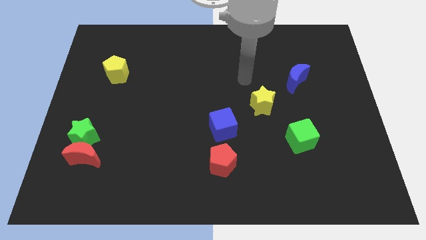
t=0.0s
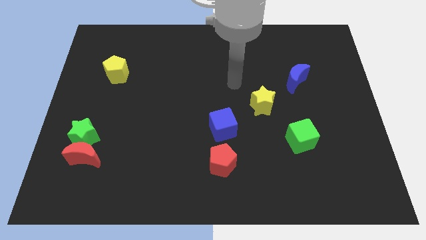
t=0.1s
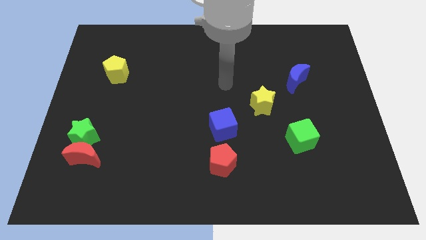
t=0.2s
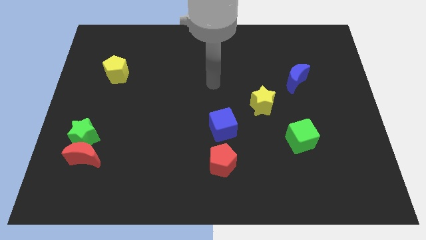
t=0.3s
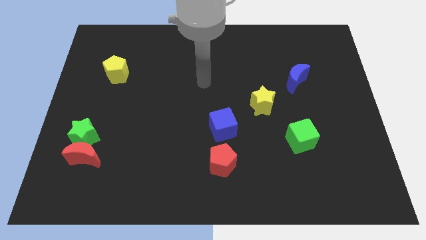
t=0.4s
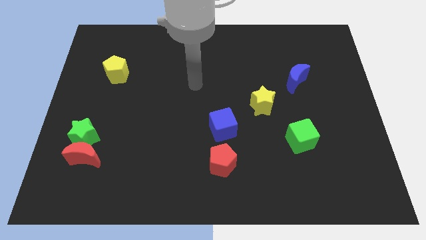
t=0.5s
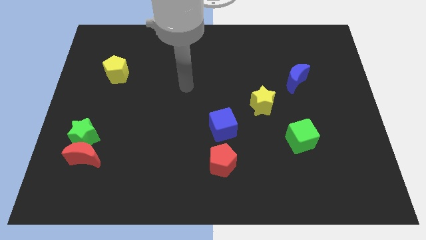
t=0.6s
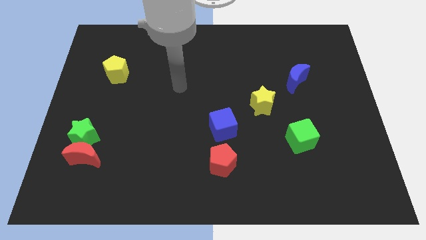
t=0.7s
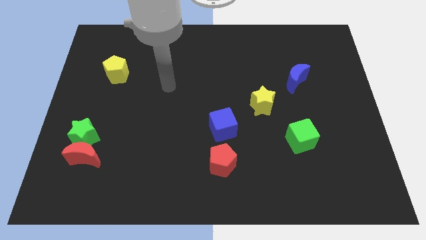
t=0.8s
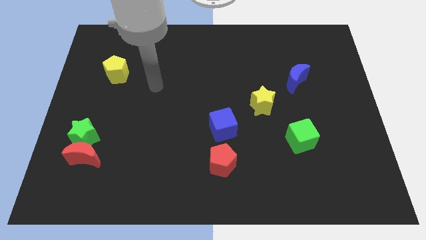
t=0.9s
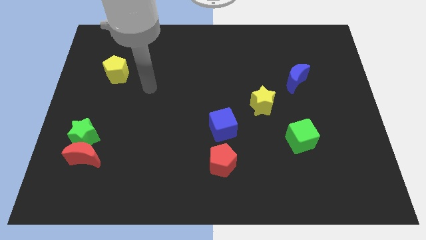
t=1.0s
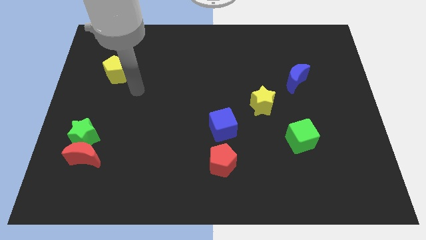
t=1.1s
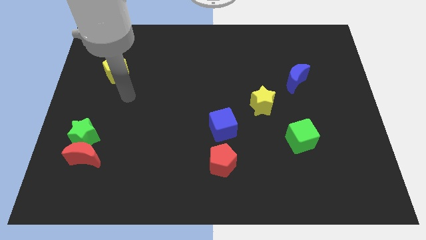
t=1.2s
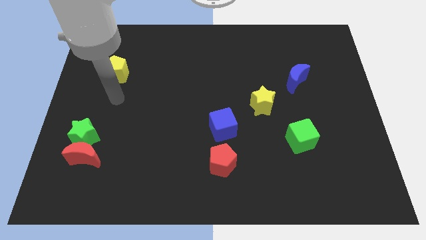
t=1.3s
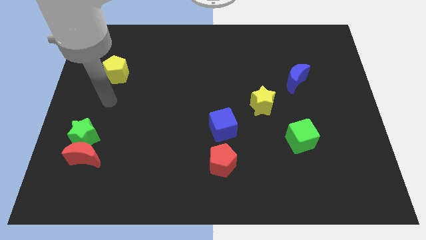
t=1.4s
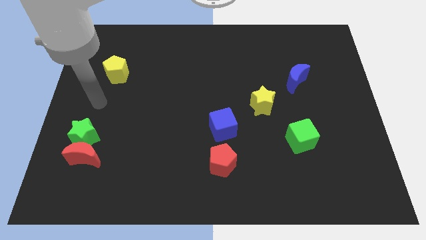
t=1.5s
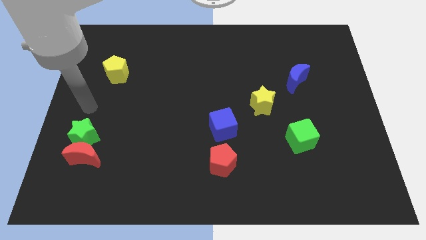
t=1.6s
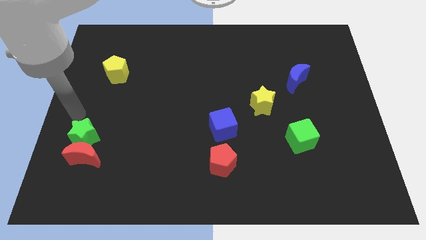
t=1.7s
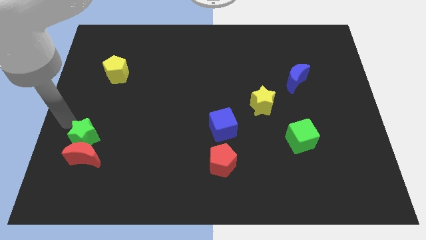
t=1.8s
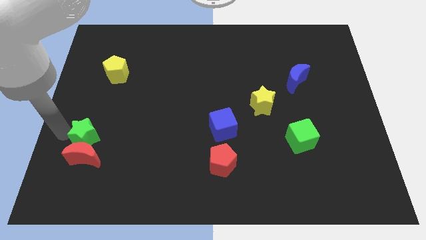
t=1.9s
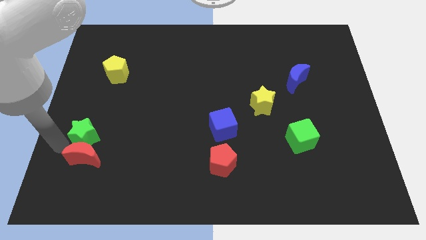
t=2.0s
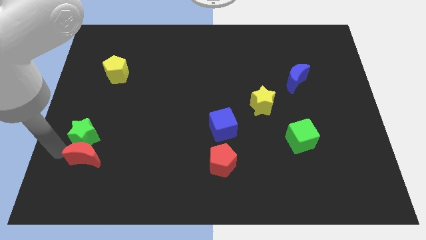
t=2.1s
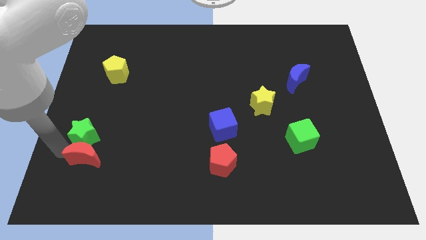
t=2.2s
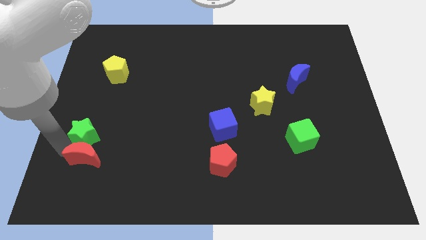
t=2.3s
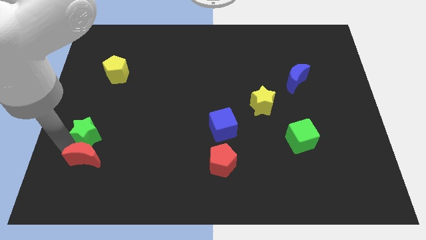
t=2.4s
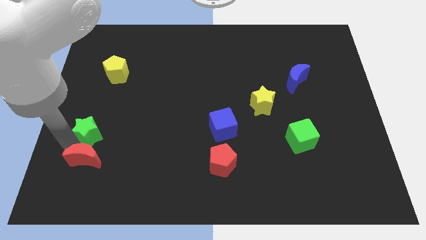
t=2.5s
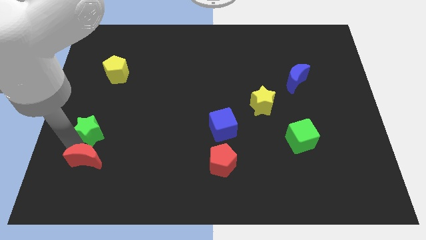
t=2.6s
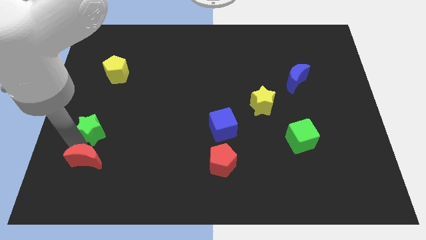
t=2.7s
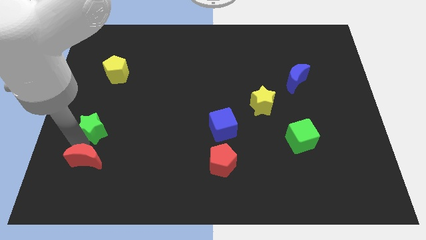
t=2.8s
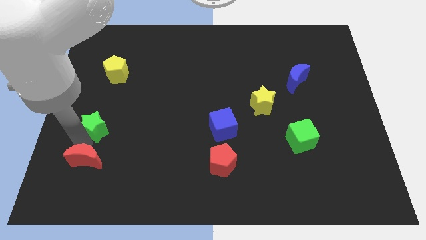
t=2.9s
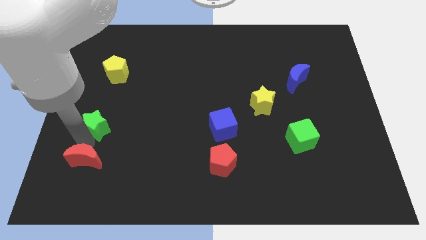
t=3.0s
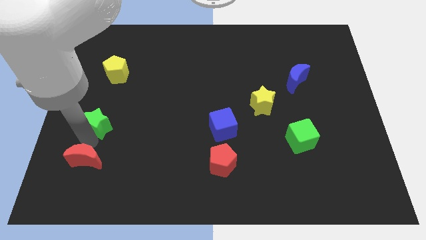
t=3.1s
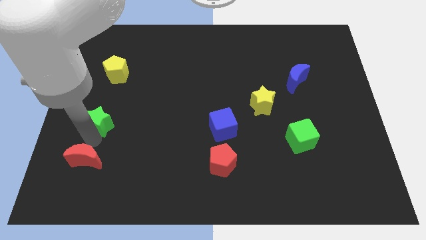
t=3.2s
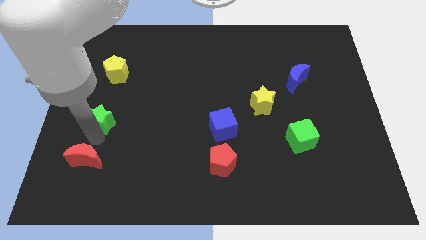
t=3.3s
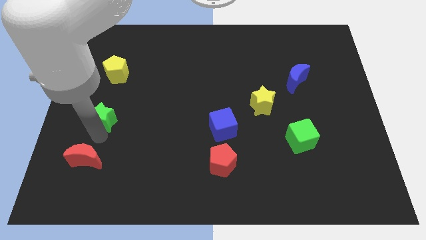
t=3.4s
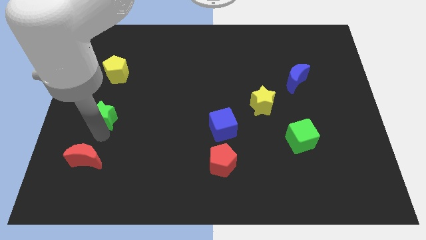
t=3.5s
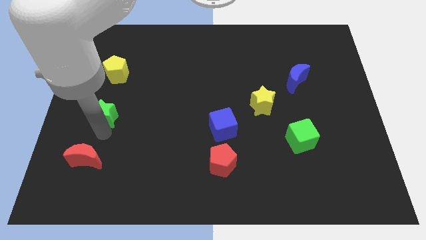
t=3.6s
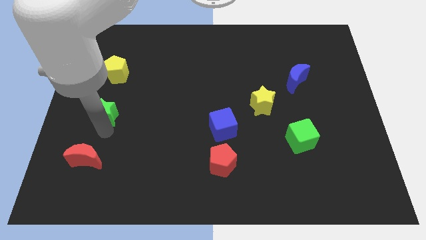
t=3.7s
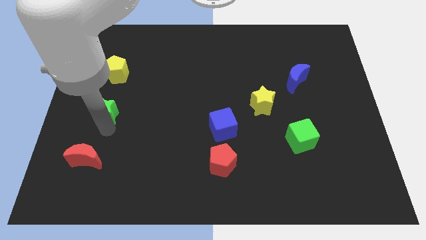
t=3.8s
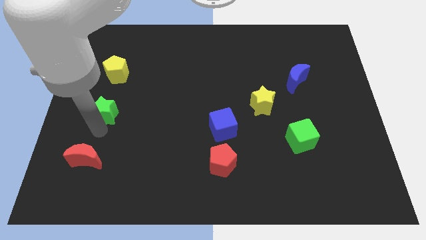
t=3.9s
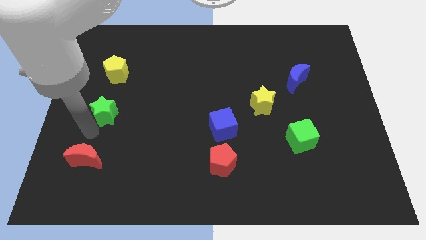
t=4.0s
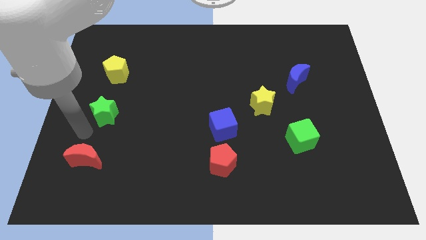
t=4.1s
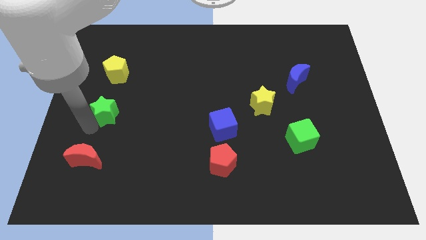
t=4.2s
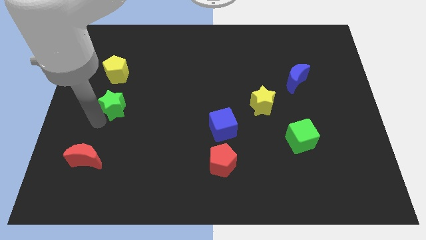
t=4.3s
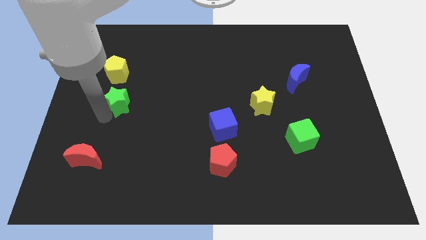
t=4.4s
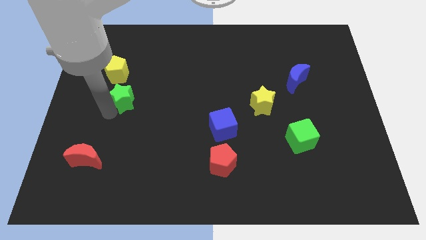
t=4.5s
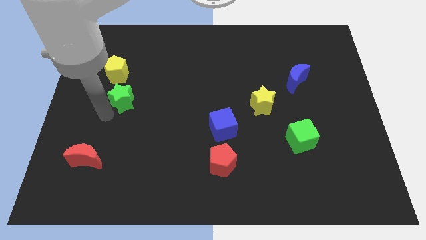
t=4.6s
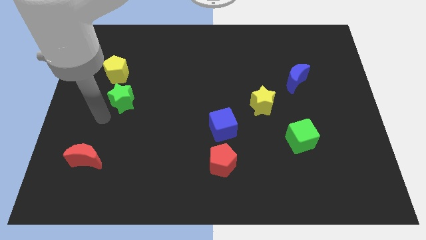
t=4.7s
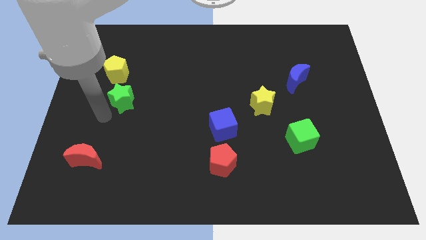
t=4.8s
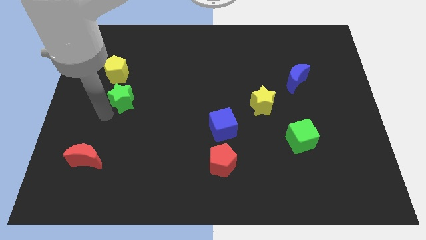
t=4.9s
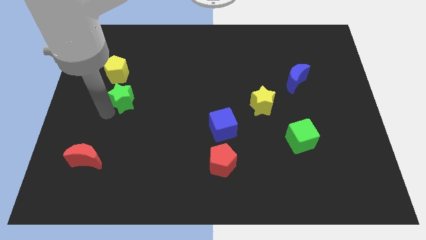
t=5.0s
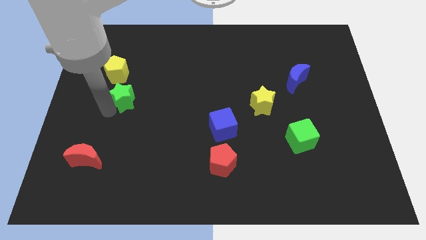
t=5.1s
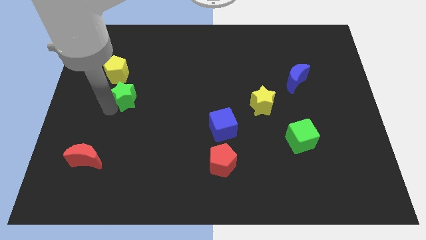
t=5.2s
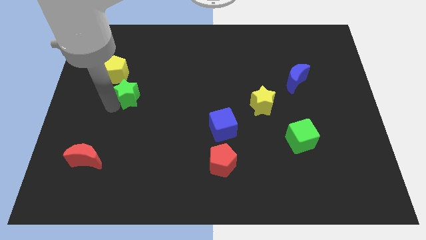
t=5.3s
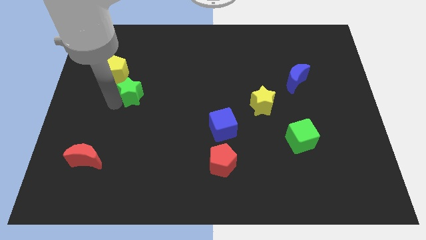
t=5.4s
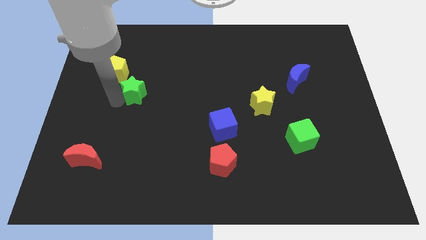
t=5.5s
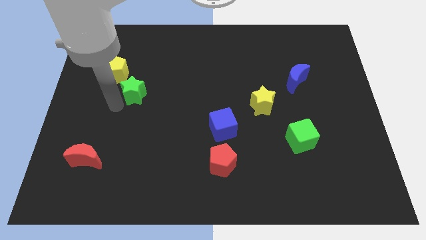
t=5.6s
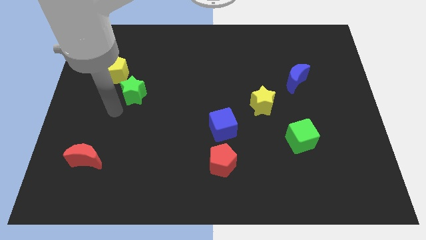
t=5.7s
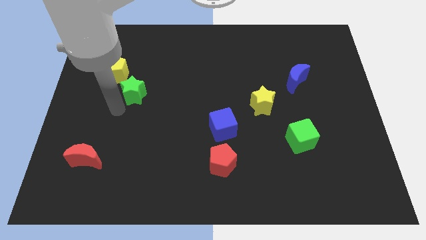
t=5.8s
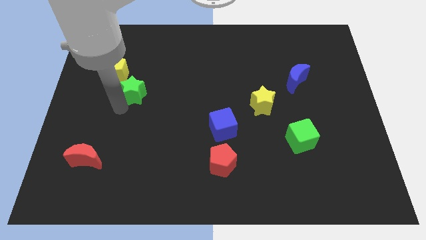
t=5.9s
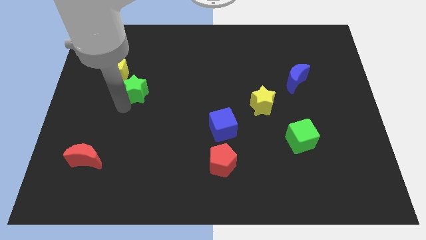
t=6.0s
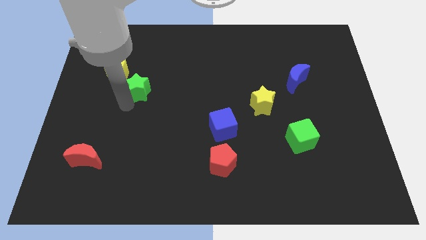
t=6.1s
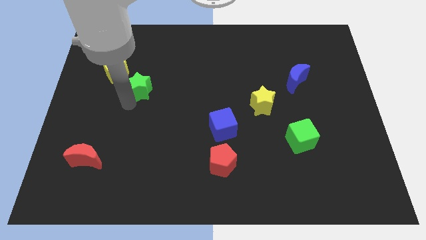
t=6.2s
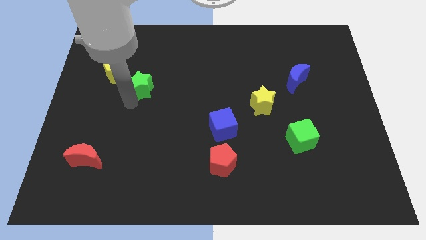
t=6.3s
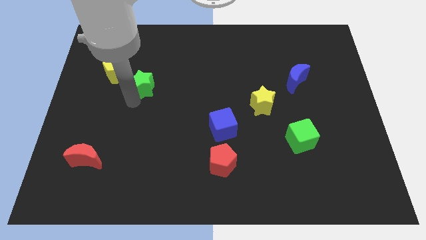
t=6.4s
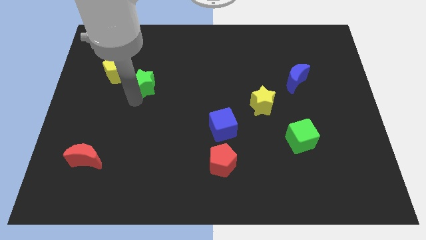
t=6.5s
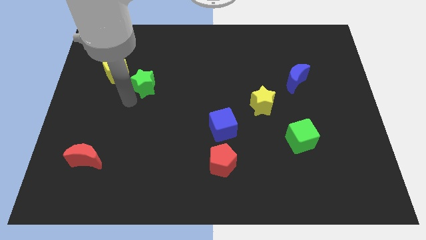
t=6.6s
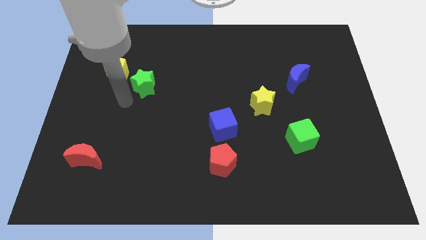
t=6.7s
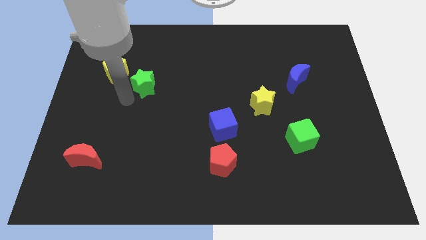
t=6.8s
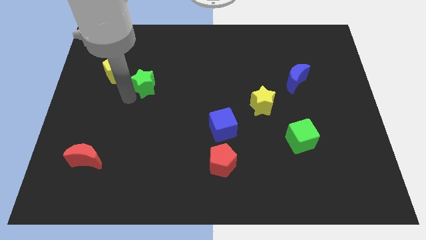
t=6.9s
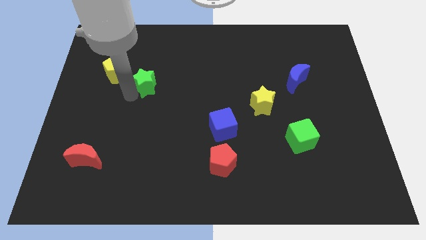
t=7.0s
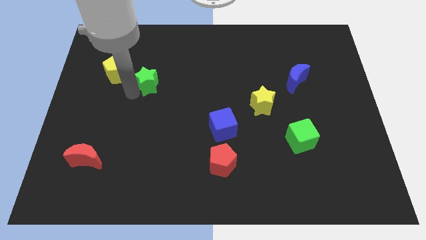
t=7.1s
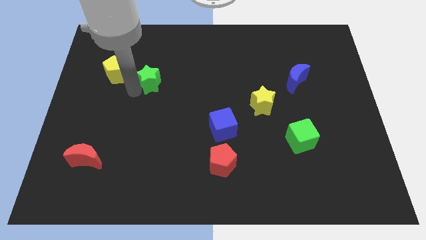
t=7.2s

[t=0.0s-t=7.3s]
push the green star diagonally up and right

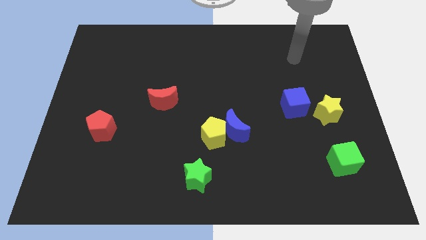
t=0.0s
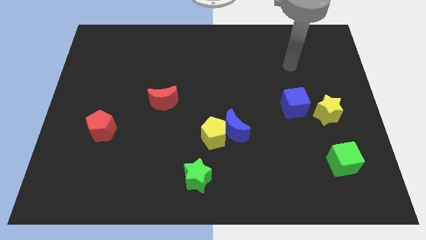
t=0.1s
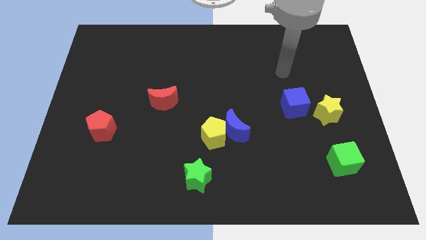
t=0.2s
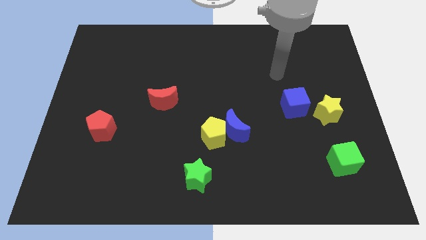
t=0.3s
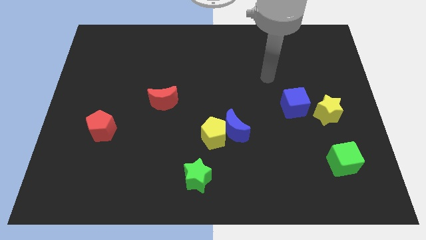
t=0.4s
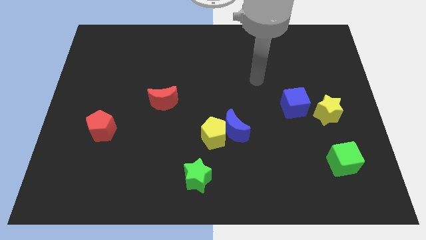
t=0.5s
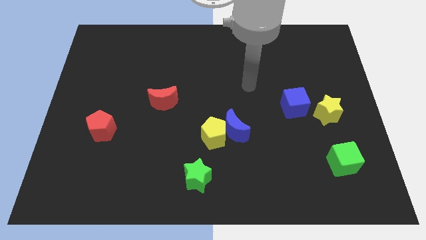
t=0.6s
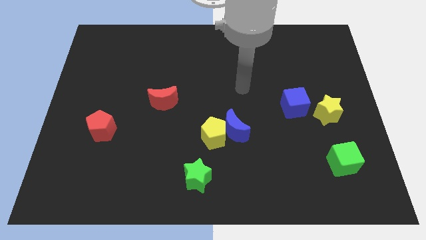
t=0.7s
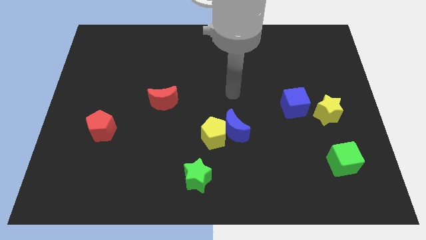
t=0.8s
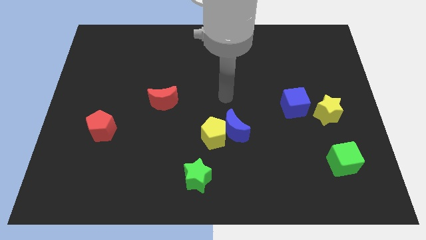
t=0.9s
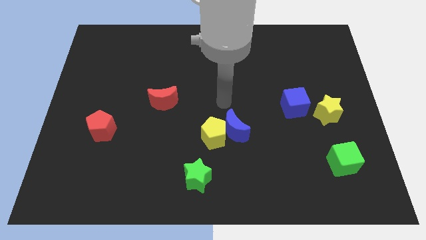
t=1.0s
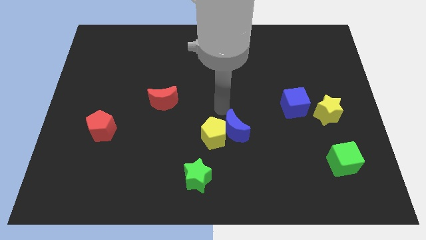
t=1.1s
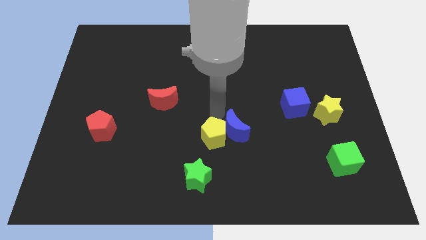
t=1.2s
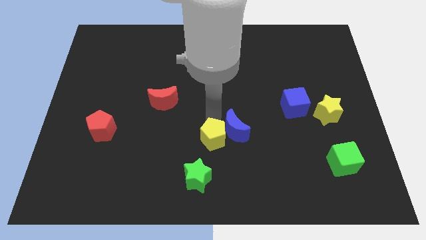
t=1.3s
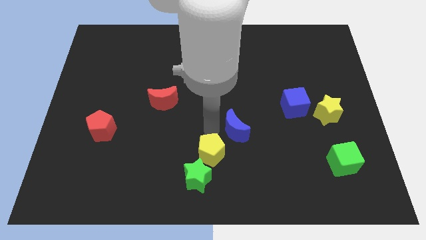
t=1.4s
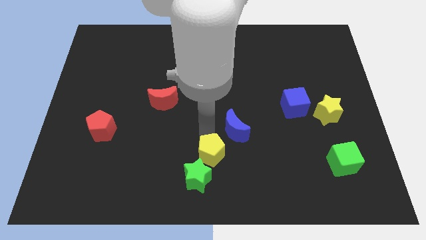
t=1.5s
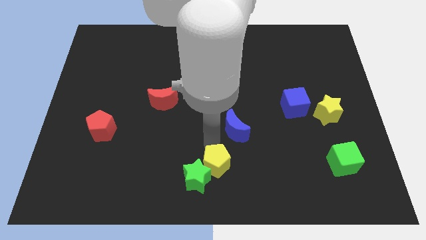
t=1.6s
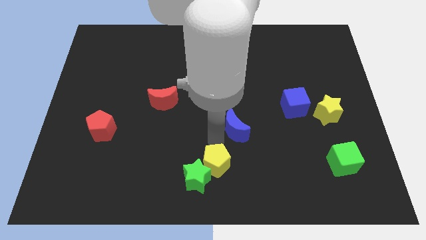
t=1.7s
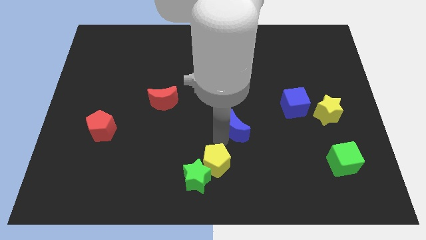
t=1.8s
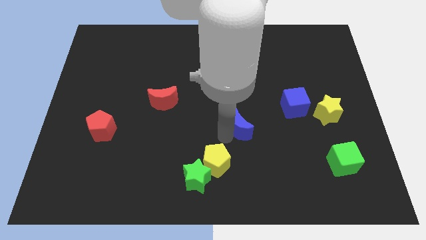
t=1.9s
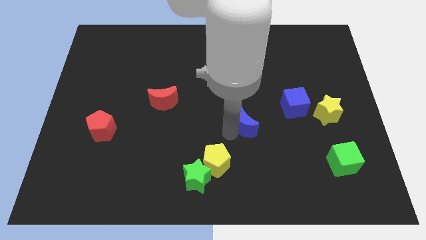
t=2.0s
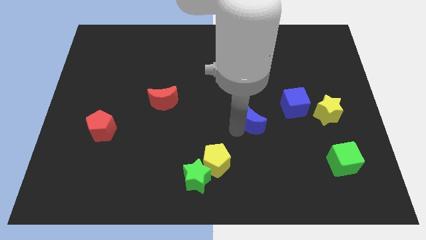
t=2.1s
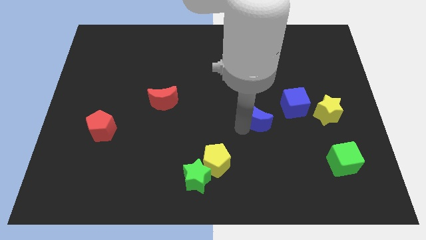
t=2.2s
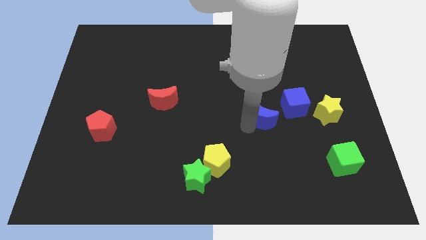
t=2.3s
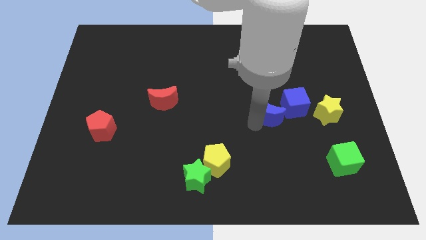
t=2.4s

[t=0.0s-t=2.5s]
slightly slide the blue moon up and to the right diagonally
